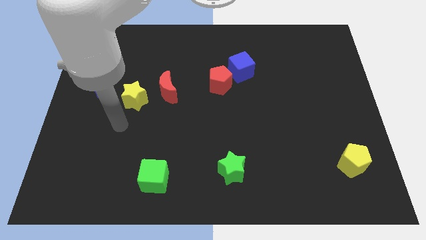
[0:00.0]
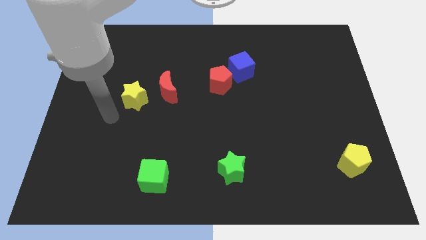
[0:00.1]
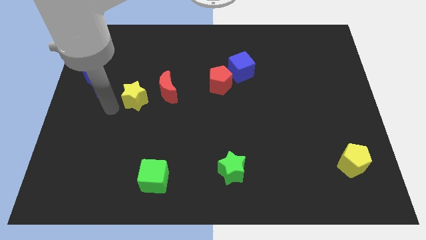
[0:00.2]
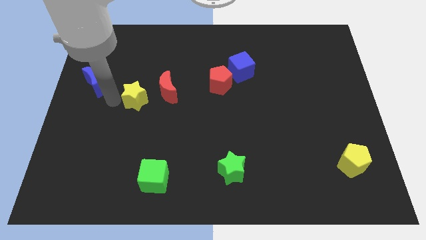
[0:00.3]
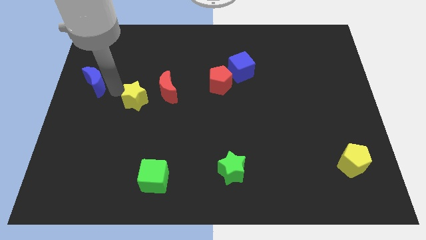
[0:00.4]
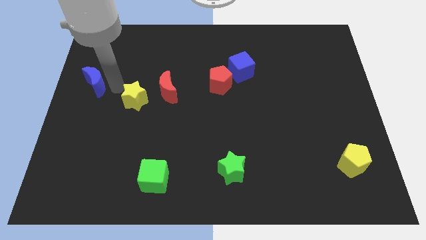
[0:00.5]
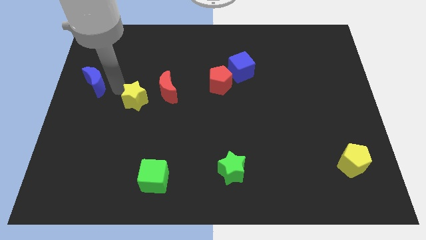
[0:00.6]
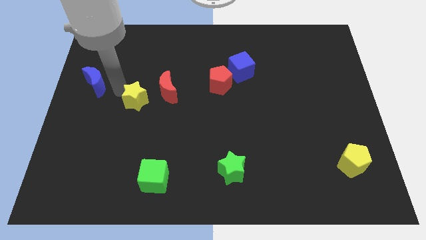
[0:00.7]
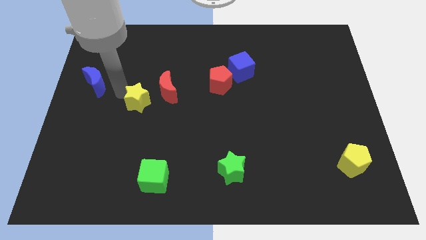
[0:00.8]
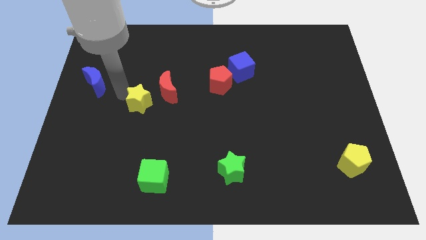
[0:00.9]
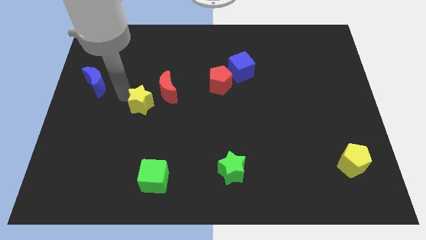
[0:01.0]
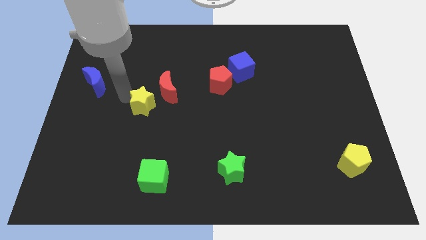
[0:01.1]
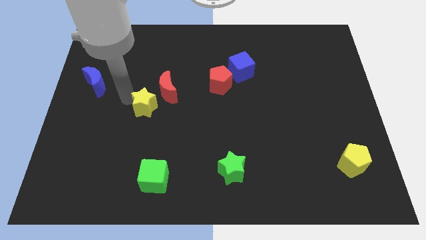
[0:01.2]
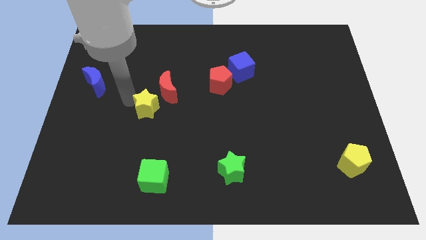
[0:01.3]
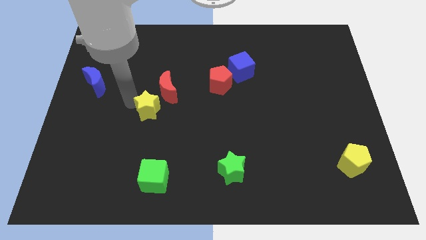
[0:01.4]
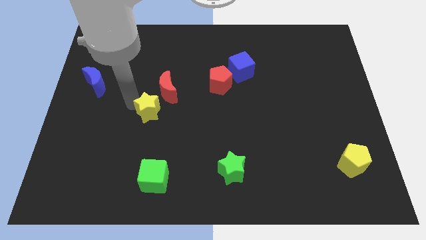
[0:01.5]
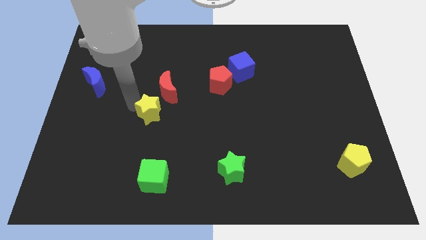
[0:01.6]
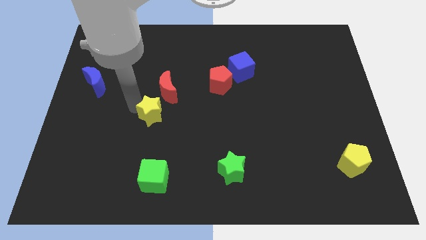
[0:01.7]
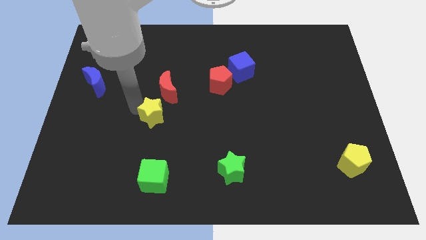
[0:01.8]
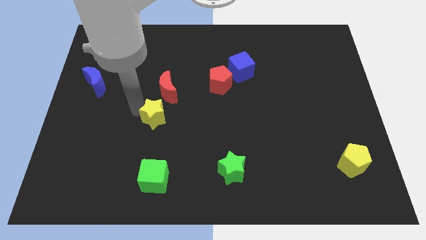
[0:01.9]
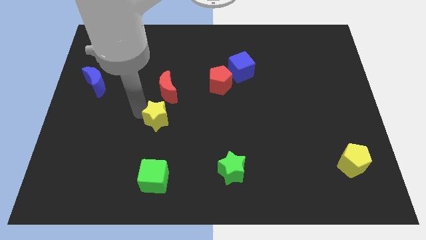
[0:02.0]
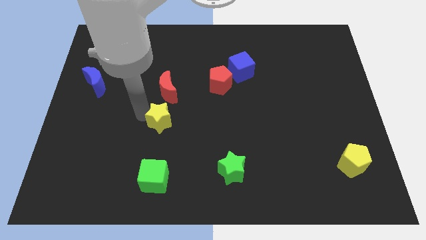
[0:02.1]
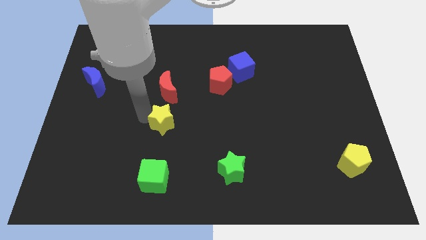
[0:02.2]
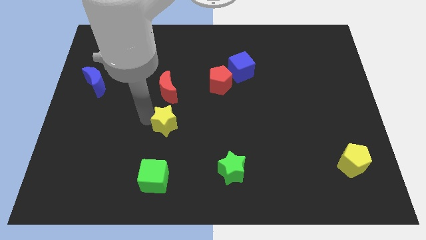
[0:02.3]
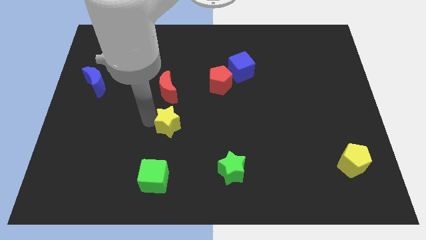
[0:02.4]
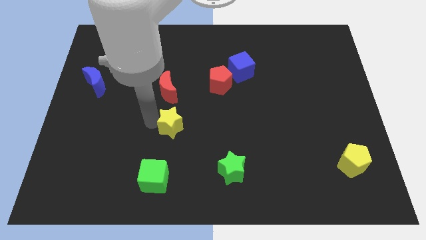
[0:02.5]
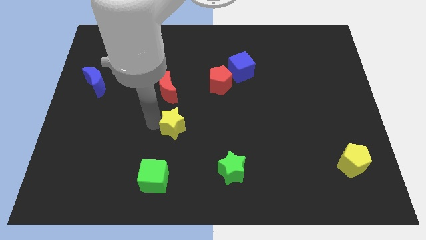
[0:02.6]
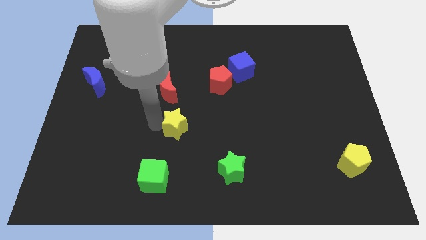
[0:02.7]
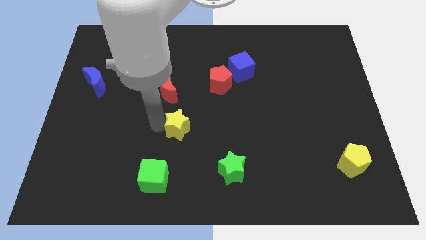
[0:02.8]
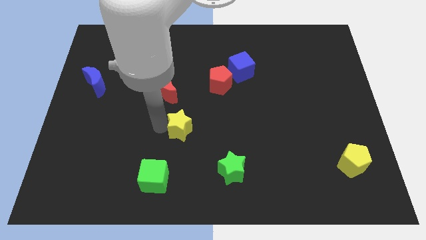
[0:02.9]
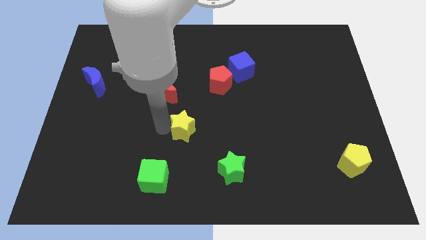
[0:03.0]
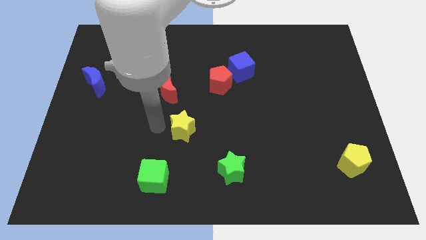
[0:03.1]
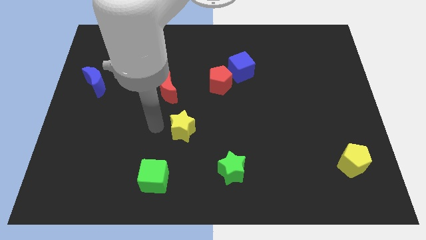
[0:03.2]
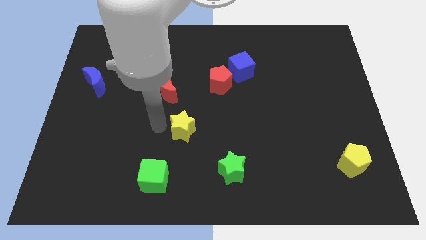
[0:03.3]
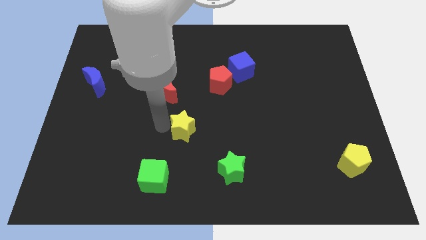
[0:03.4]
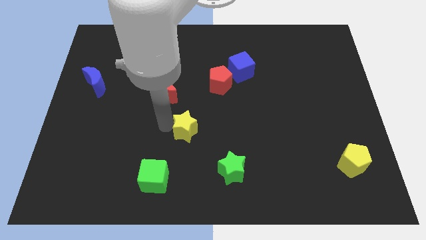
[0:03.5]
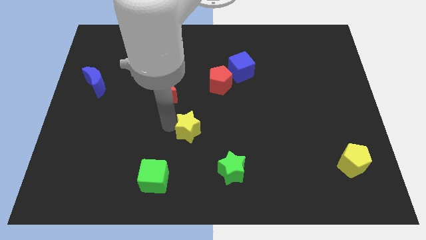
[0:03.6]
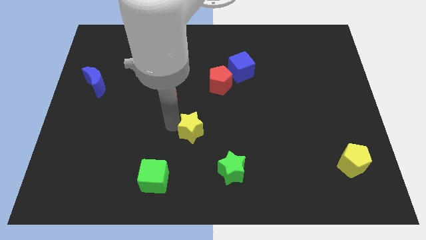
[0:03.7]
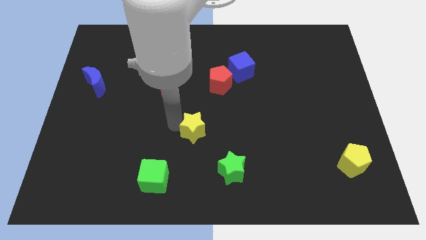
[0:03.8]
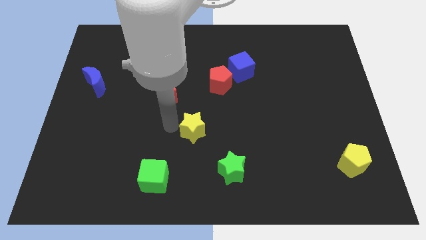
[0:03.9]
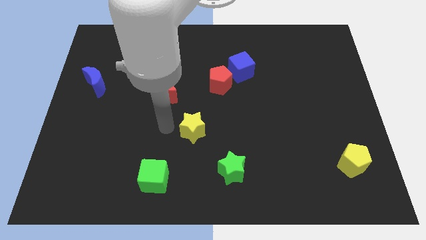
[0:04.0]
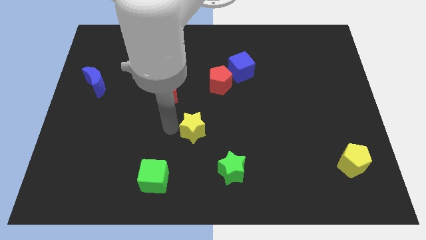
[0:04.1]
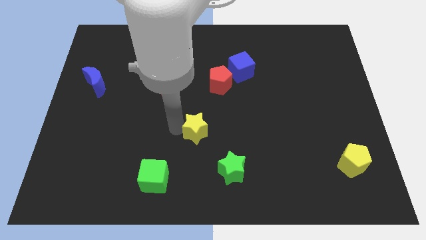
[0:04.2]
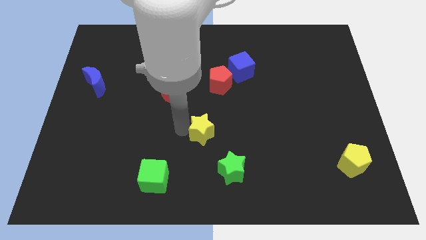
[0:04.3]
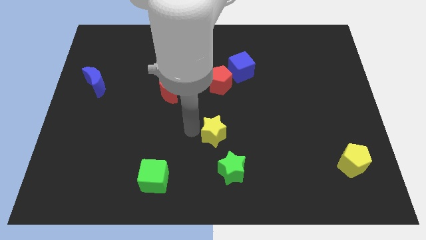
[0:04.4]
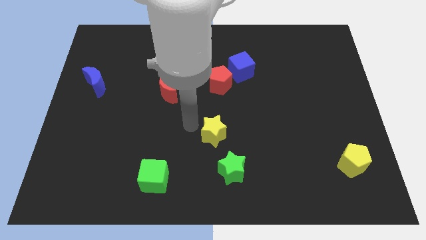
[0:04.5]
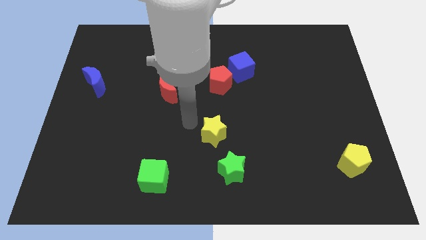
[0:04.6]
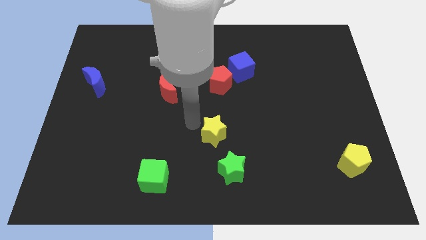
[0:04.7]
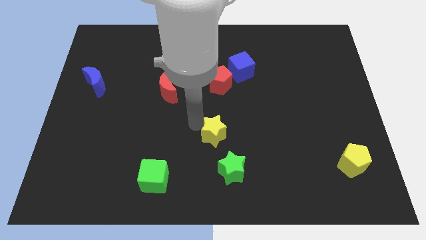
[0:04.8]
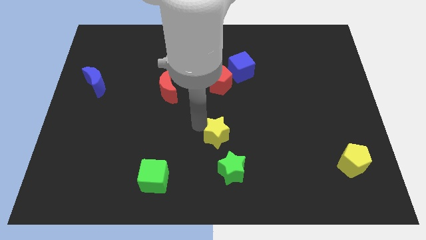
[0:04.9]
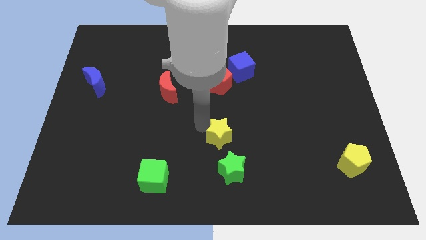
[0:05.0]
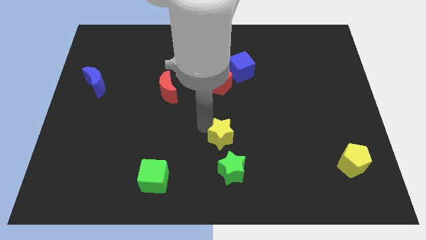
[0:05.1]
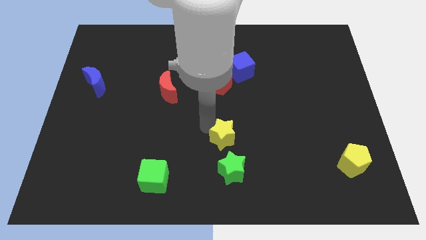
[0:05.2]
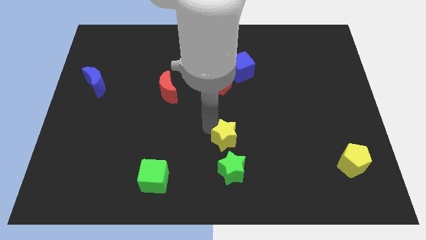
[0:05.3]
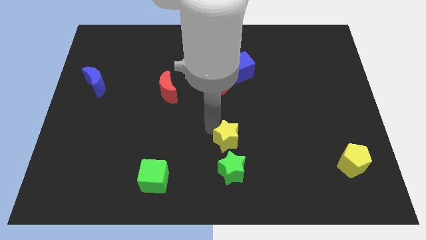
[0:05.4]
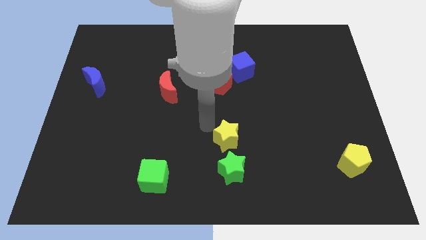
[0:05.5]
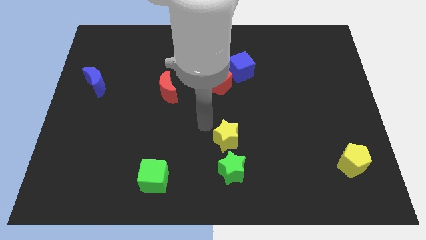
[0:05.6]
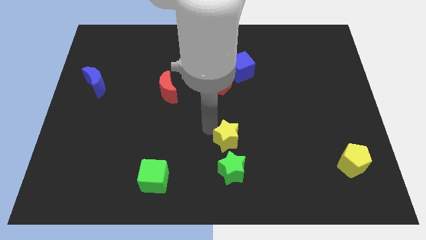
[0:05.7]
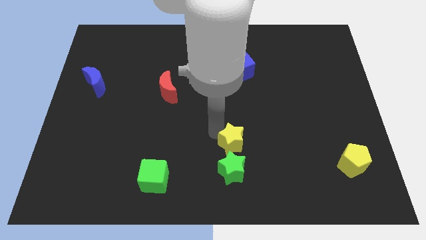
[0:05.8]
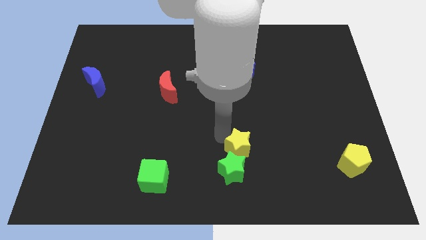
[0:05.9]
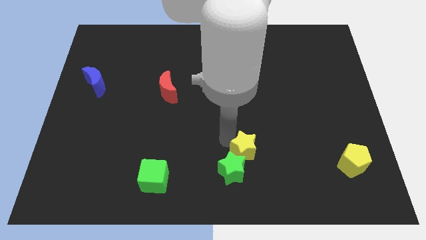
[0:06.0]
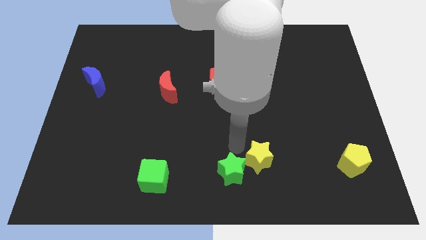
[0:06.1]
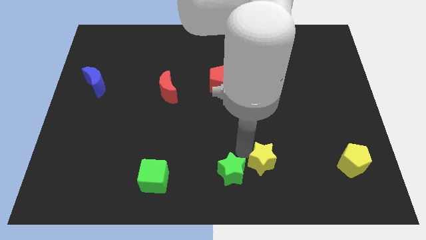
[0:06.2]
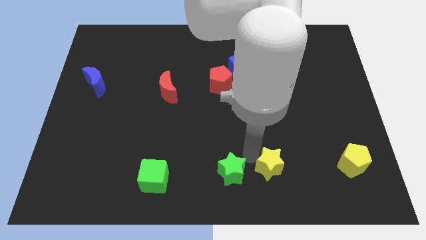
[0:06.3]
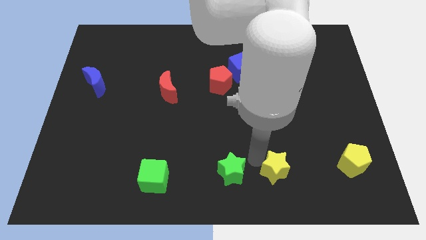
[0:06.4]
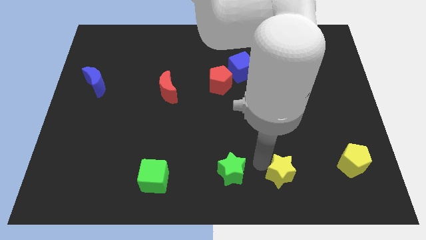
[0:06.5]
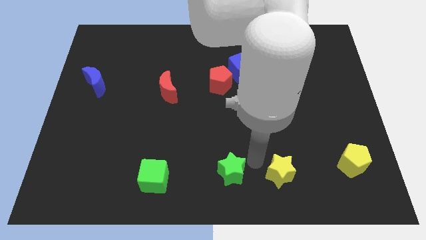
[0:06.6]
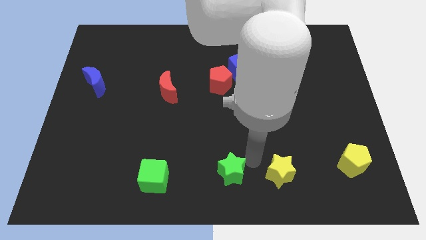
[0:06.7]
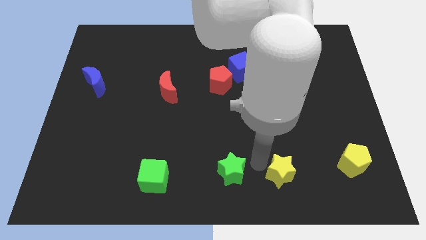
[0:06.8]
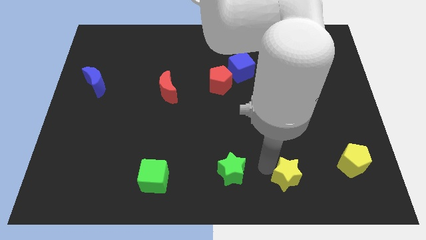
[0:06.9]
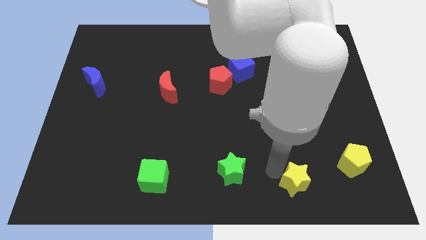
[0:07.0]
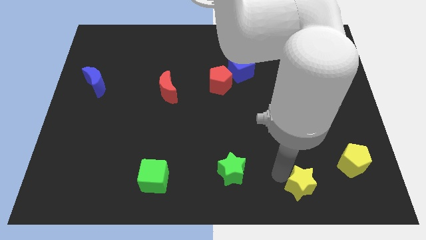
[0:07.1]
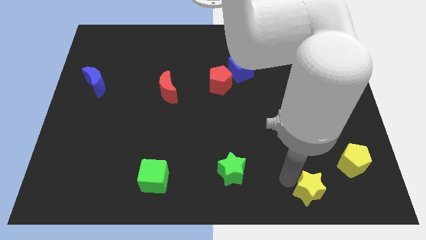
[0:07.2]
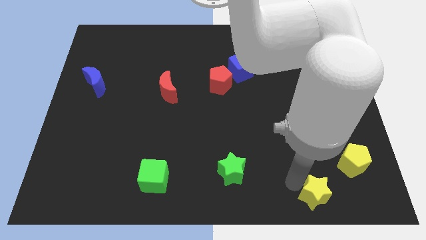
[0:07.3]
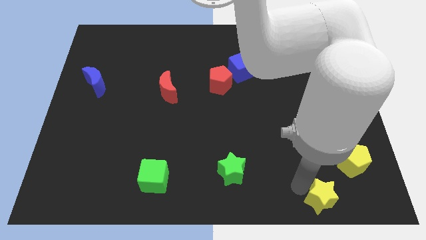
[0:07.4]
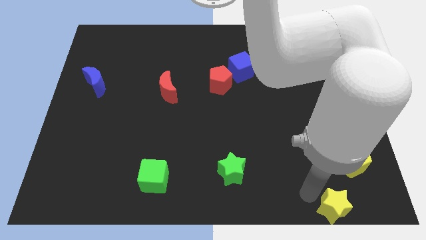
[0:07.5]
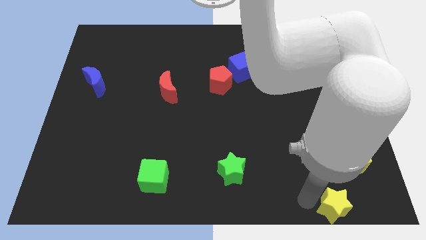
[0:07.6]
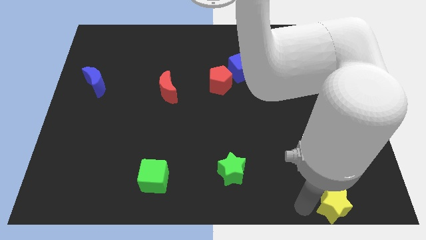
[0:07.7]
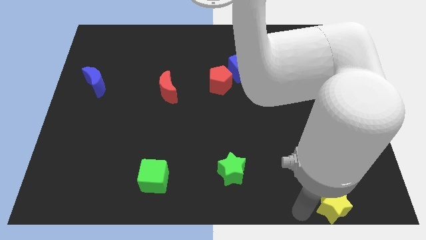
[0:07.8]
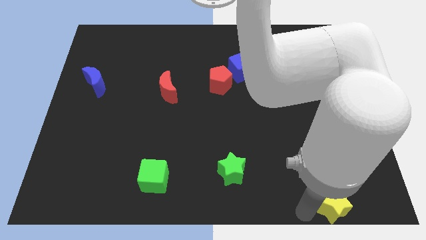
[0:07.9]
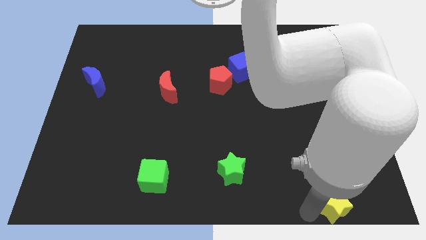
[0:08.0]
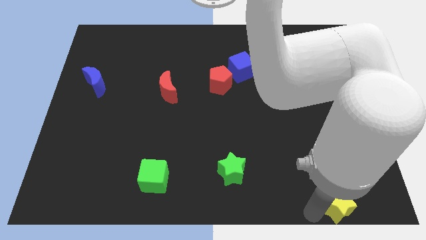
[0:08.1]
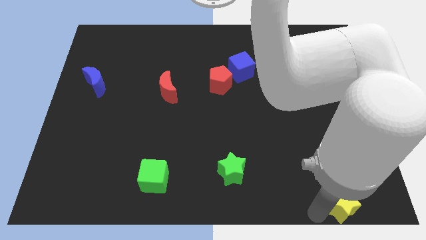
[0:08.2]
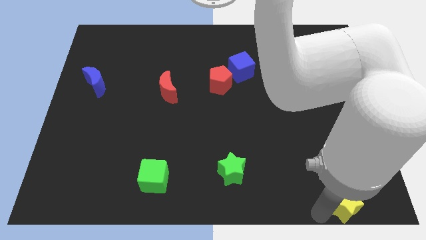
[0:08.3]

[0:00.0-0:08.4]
move the yellow star to the bottom right corner
